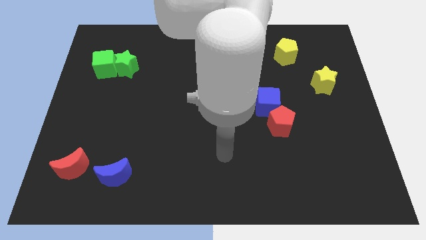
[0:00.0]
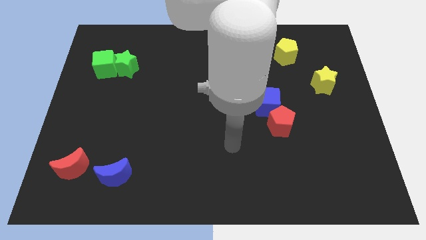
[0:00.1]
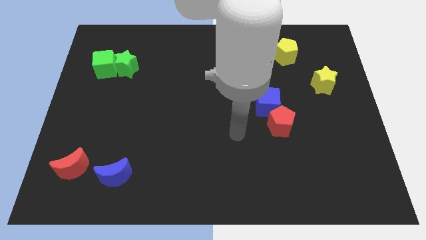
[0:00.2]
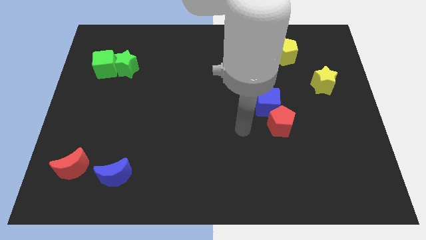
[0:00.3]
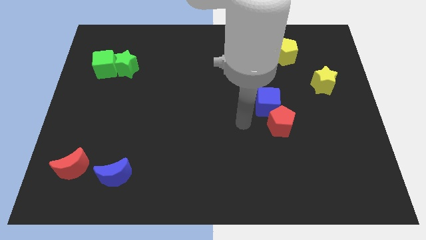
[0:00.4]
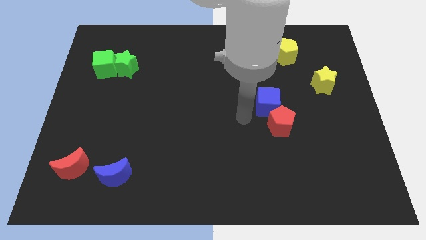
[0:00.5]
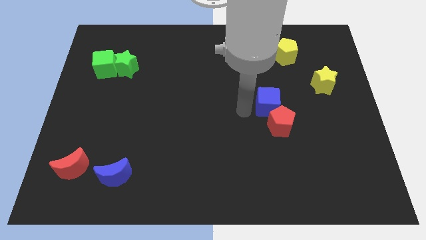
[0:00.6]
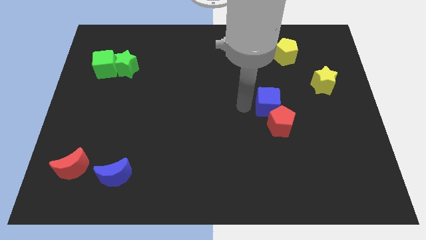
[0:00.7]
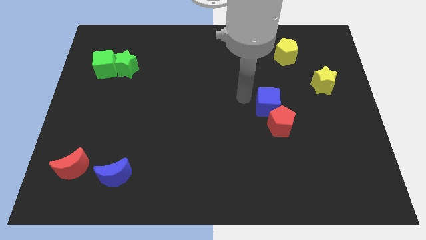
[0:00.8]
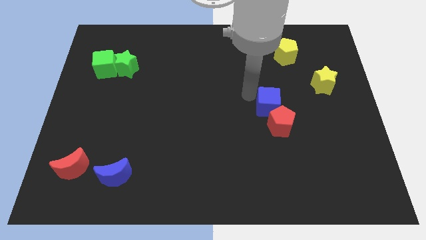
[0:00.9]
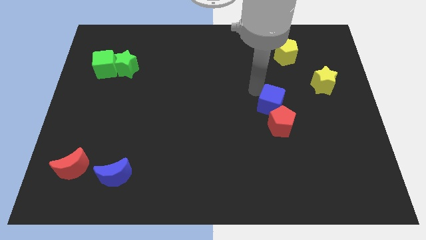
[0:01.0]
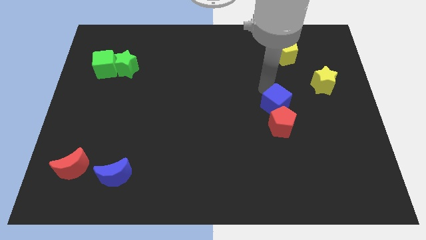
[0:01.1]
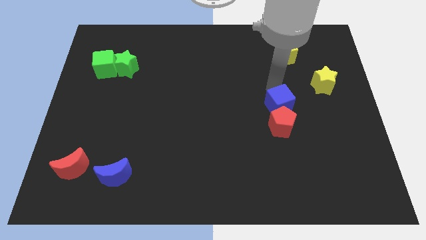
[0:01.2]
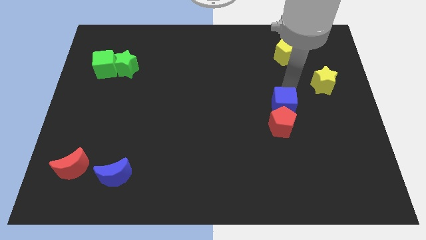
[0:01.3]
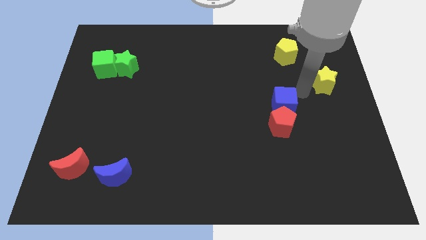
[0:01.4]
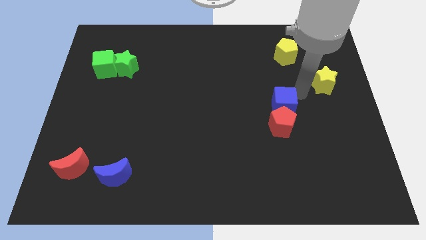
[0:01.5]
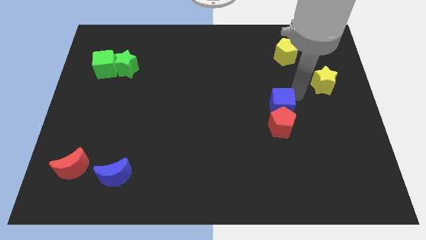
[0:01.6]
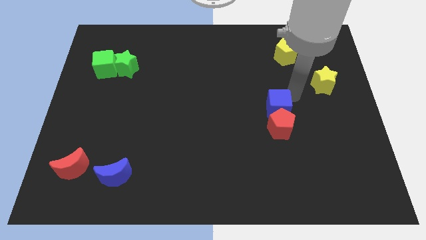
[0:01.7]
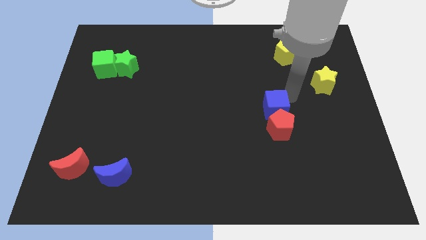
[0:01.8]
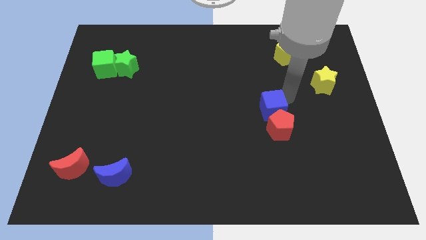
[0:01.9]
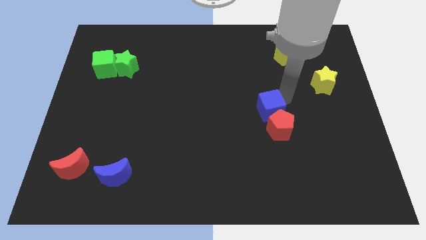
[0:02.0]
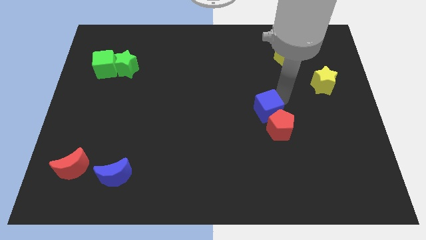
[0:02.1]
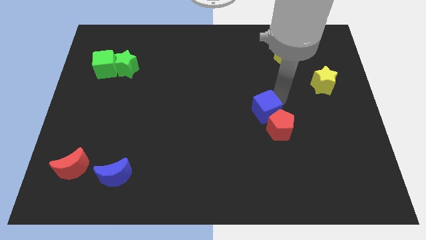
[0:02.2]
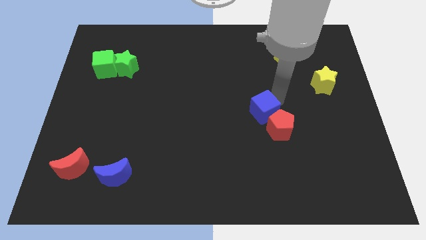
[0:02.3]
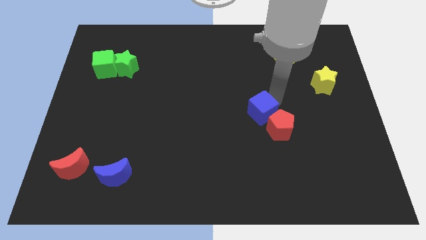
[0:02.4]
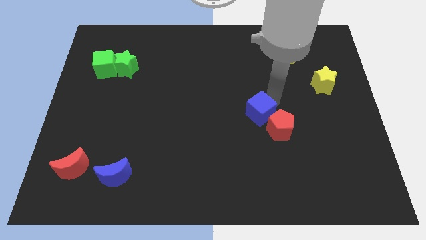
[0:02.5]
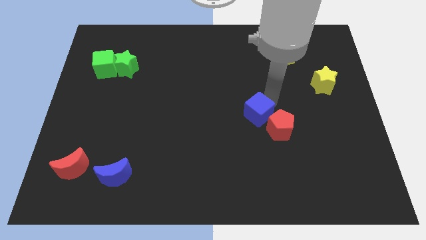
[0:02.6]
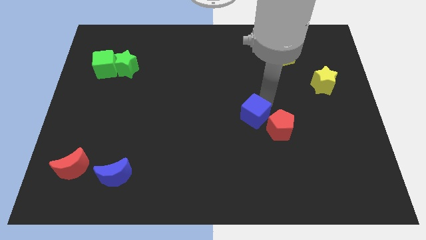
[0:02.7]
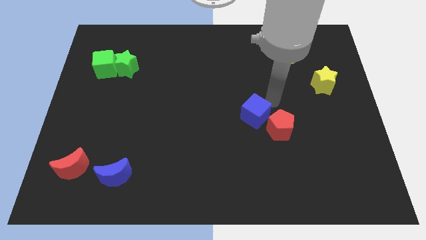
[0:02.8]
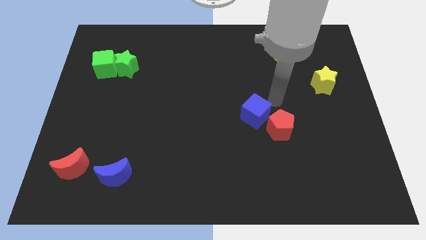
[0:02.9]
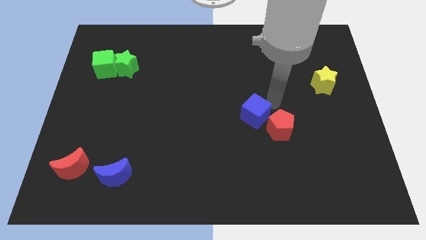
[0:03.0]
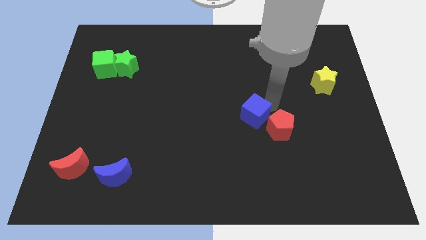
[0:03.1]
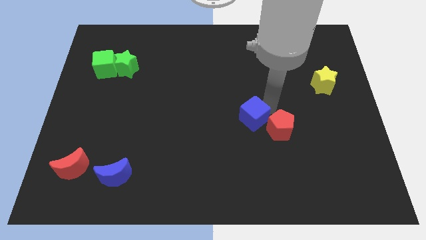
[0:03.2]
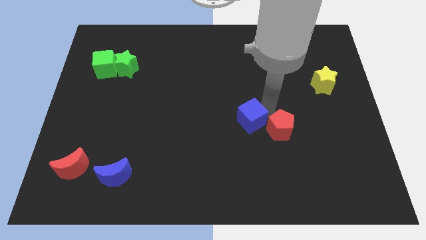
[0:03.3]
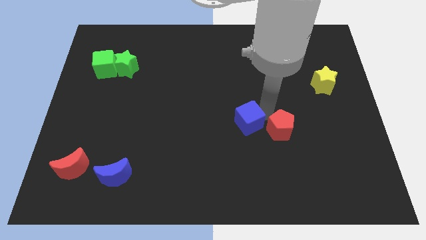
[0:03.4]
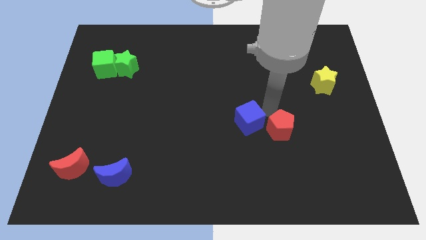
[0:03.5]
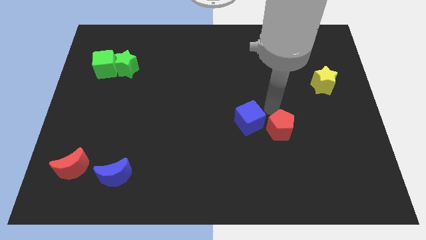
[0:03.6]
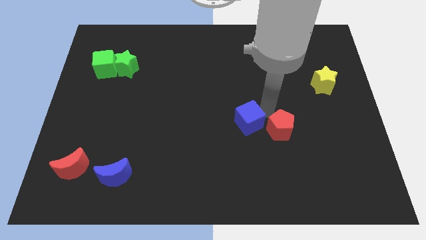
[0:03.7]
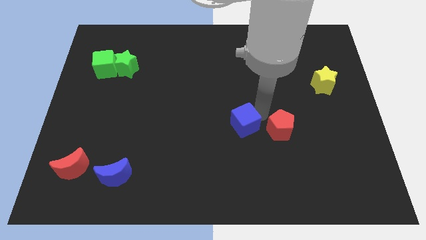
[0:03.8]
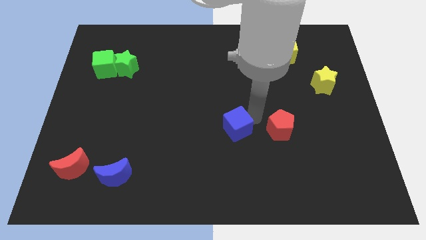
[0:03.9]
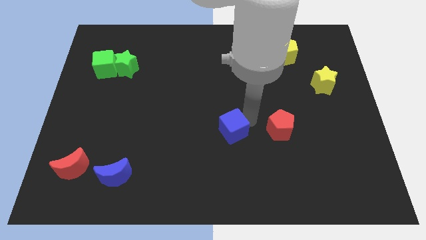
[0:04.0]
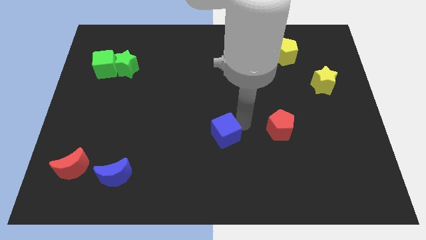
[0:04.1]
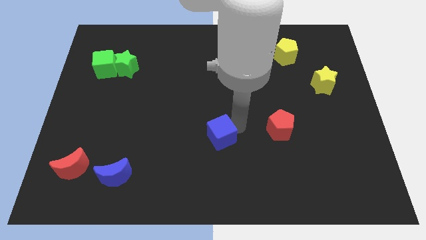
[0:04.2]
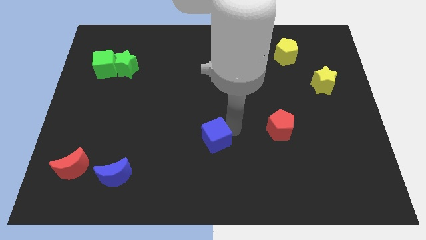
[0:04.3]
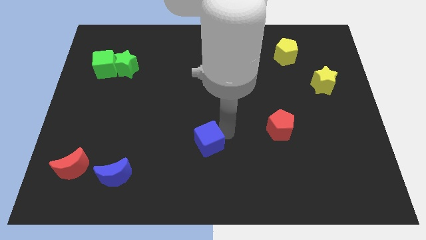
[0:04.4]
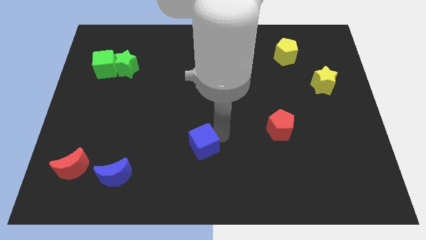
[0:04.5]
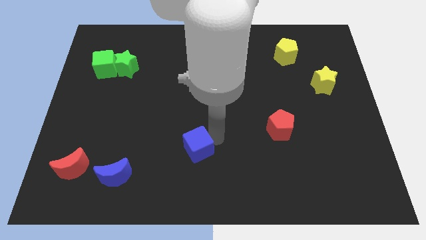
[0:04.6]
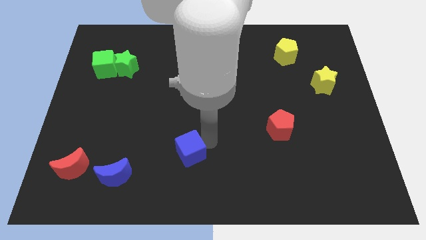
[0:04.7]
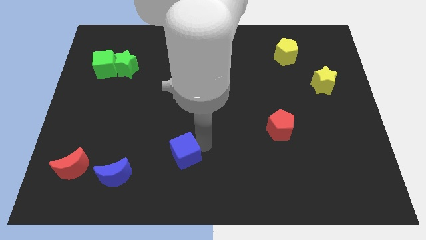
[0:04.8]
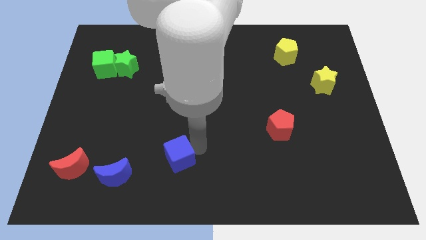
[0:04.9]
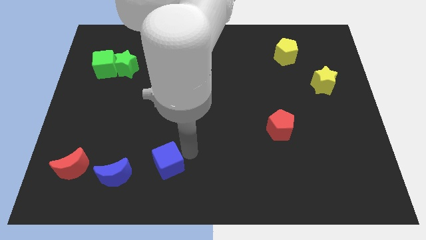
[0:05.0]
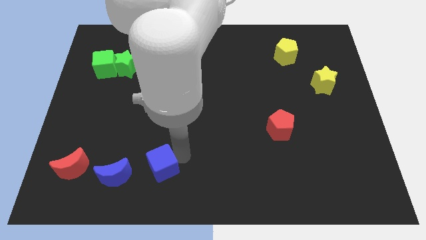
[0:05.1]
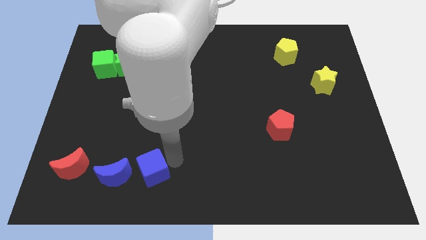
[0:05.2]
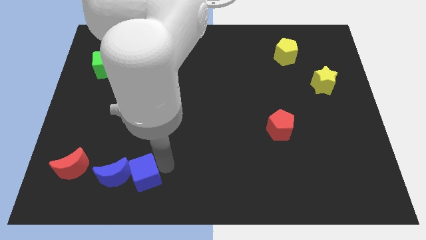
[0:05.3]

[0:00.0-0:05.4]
slide the blue cube close to the blue moon

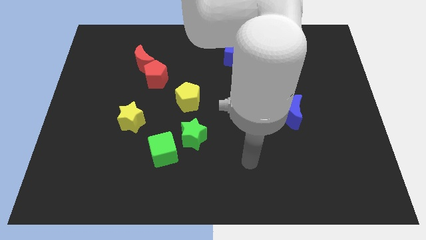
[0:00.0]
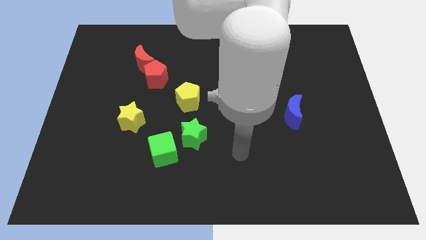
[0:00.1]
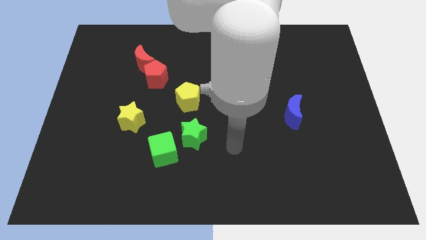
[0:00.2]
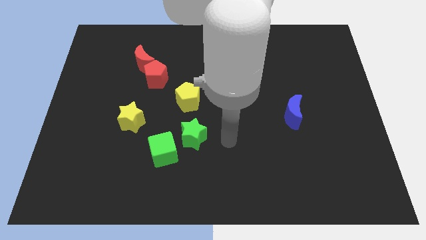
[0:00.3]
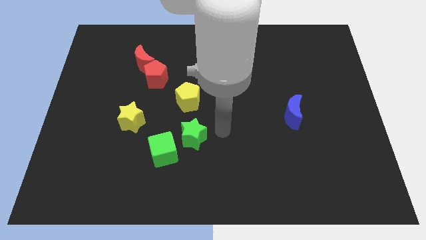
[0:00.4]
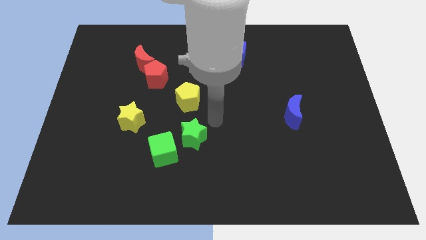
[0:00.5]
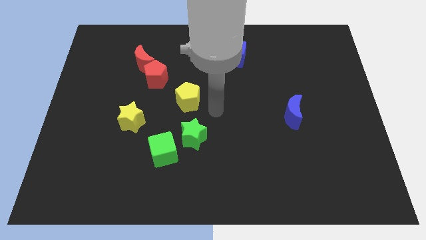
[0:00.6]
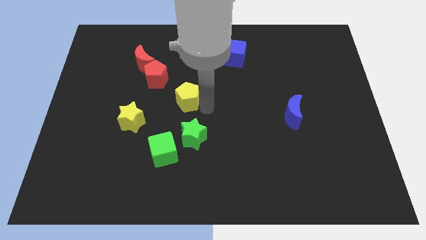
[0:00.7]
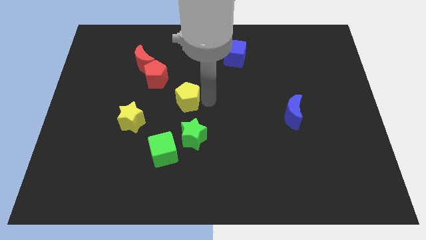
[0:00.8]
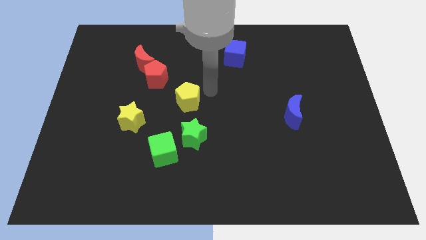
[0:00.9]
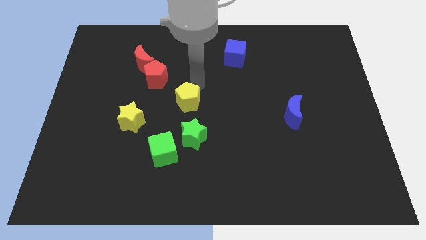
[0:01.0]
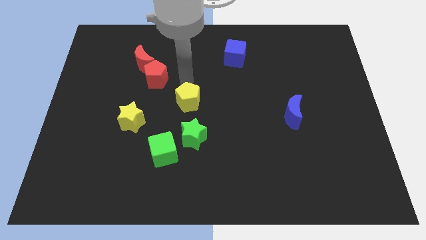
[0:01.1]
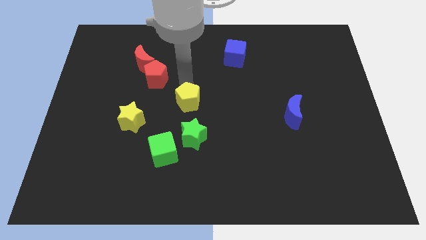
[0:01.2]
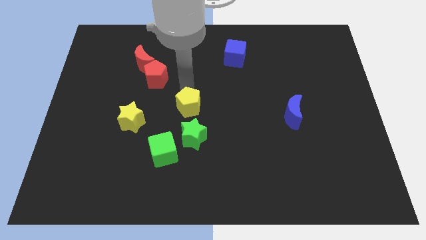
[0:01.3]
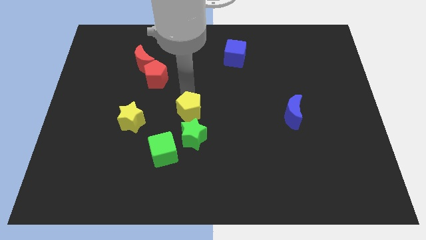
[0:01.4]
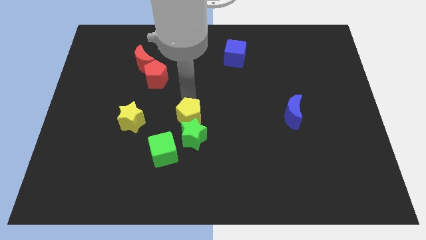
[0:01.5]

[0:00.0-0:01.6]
slide the yellow pentagon next to the green star

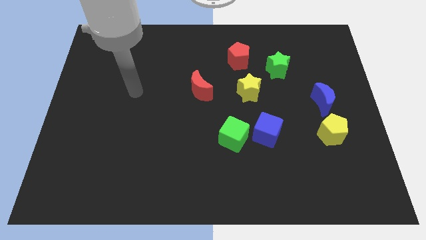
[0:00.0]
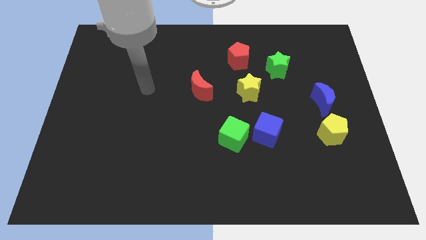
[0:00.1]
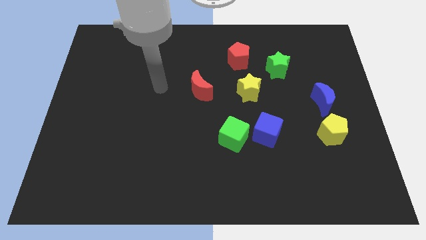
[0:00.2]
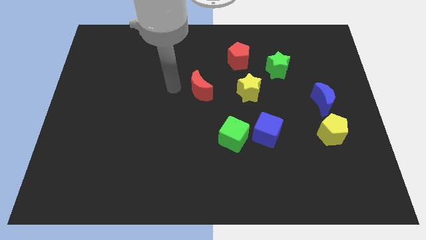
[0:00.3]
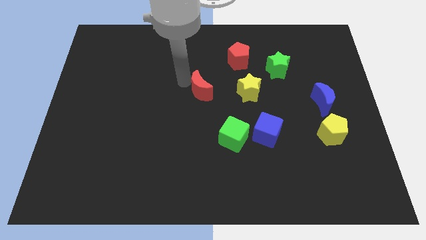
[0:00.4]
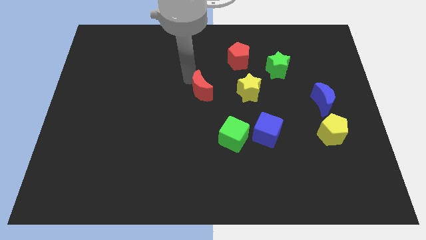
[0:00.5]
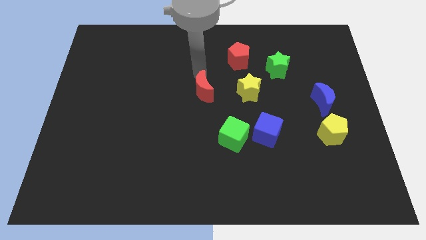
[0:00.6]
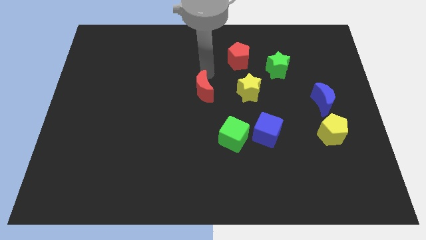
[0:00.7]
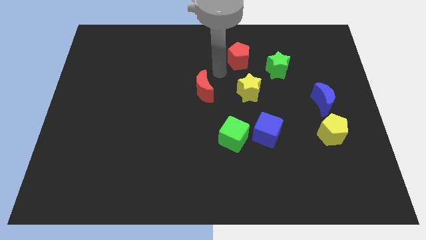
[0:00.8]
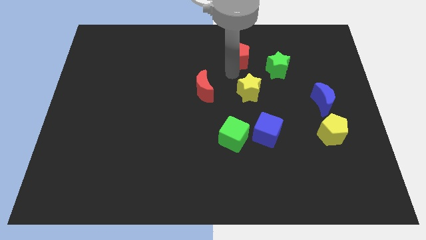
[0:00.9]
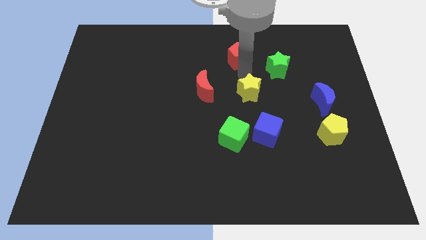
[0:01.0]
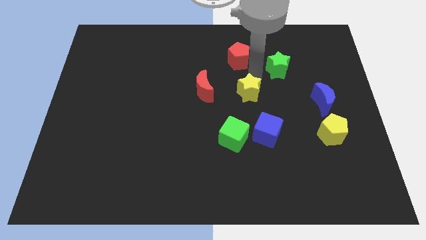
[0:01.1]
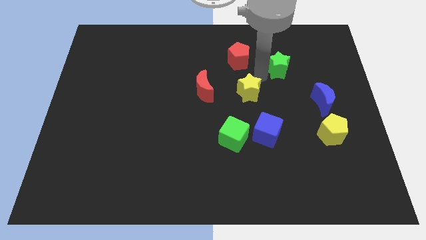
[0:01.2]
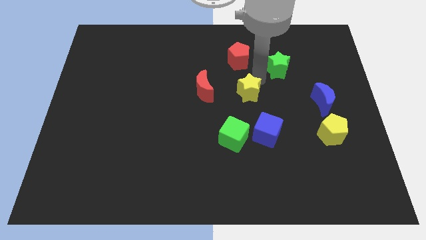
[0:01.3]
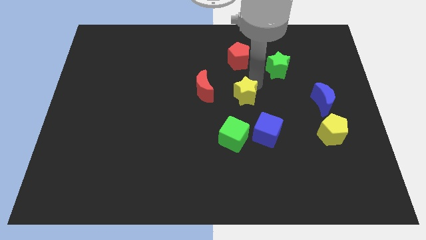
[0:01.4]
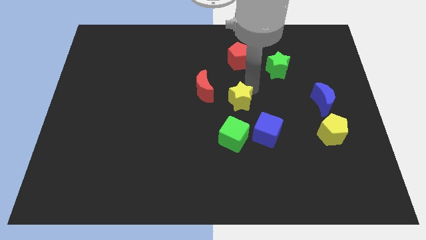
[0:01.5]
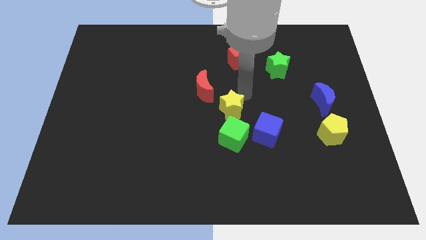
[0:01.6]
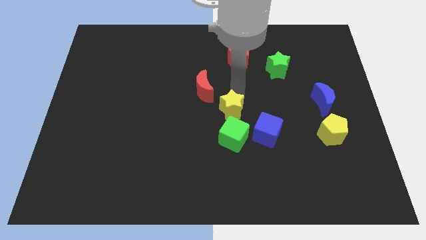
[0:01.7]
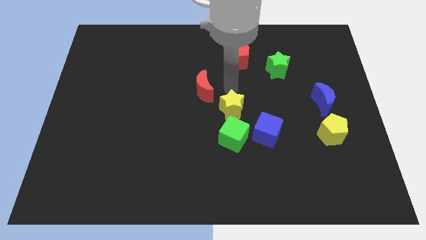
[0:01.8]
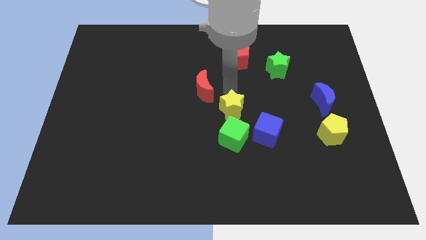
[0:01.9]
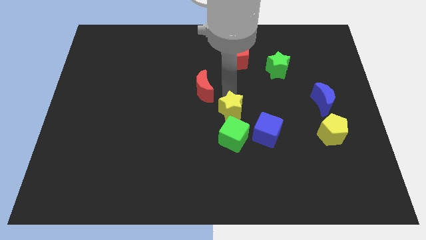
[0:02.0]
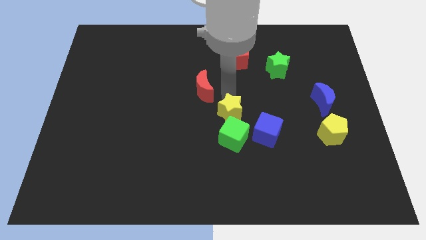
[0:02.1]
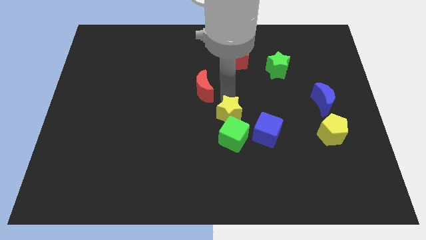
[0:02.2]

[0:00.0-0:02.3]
push the yellow star towards the green cube
